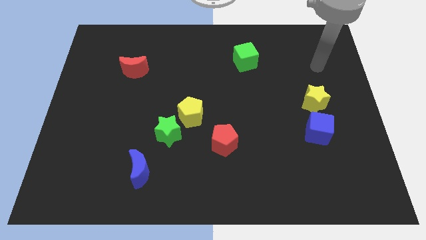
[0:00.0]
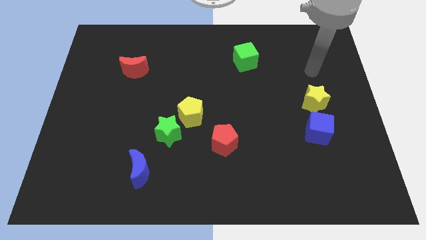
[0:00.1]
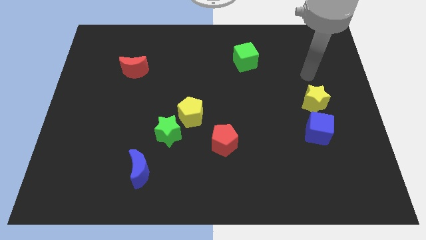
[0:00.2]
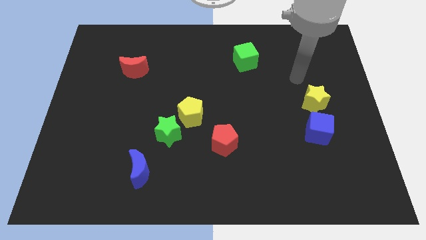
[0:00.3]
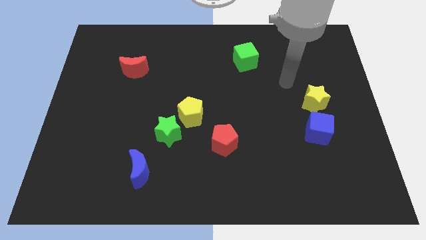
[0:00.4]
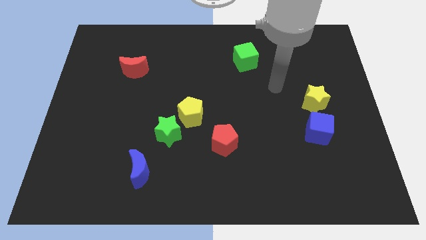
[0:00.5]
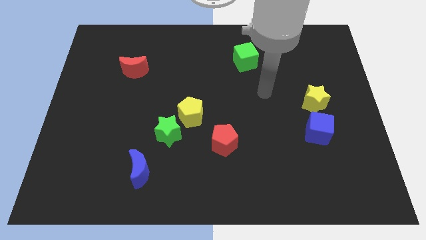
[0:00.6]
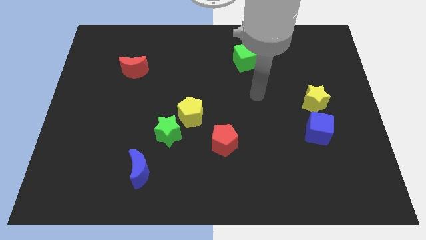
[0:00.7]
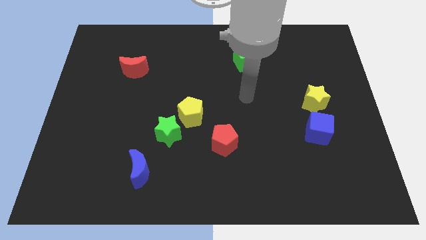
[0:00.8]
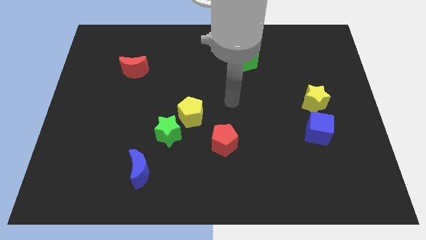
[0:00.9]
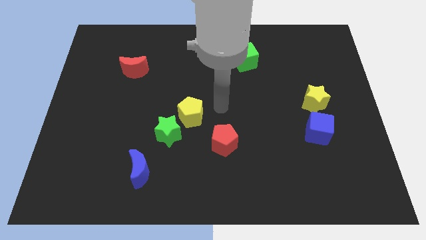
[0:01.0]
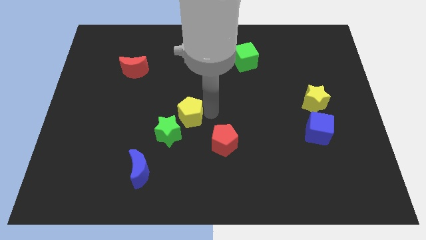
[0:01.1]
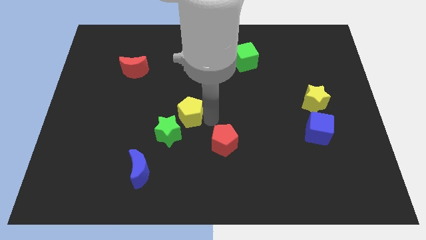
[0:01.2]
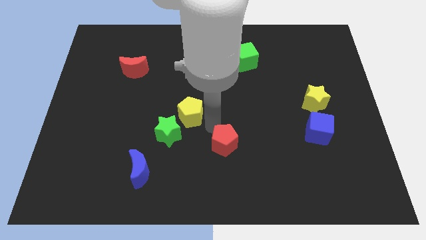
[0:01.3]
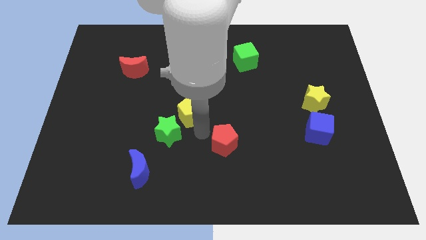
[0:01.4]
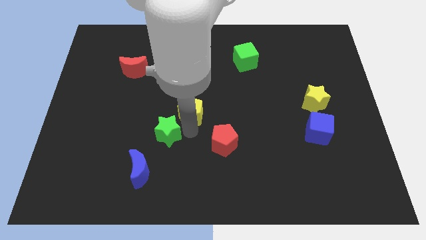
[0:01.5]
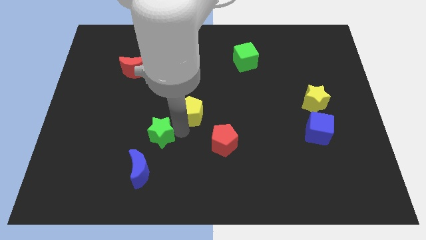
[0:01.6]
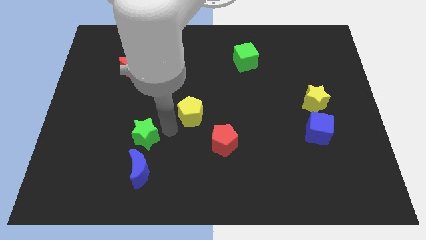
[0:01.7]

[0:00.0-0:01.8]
pull the yellow pentagon apart from the green star

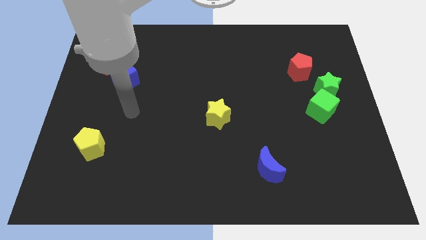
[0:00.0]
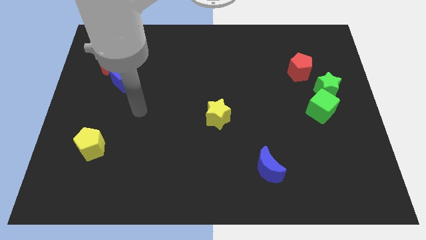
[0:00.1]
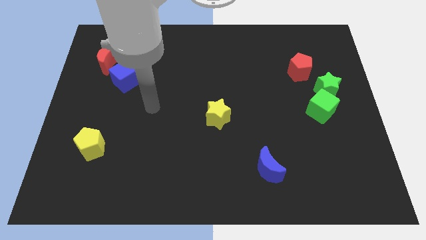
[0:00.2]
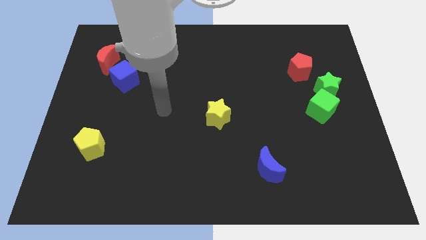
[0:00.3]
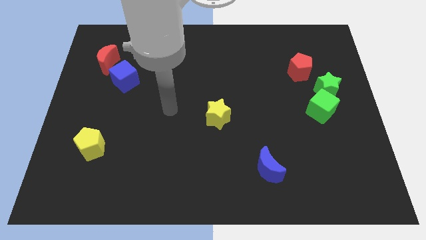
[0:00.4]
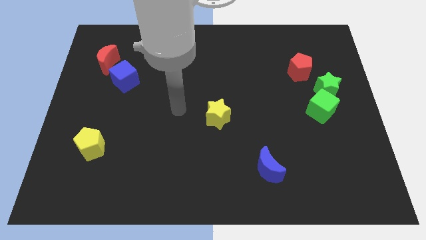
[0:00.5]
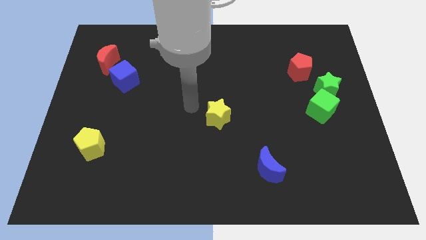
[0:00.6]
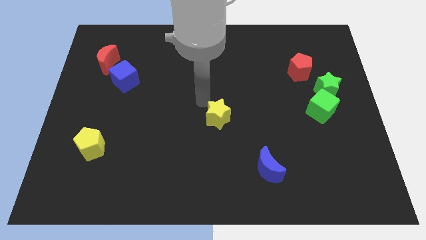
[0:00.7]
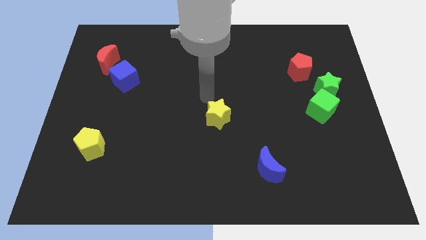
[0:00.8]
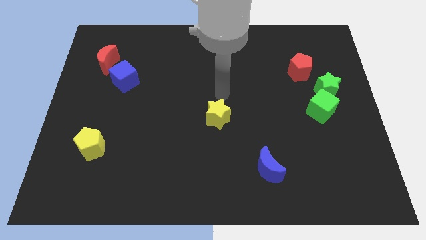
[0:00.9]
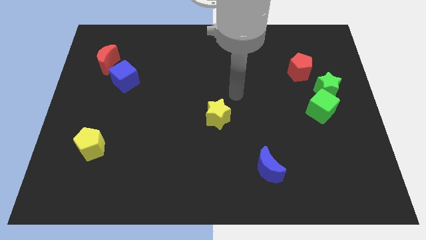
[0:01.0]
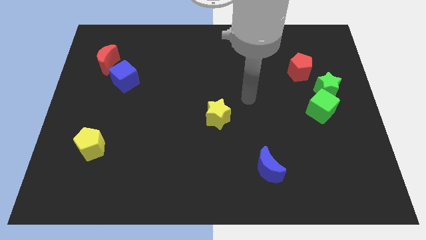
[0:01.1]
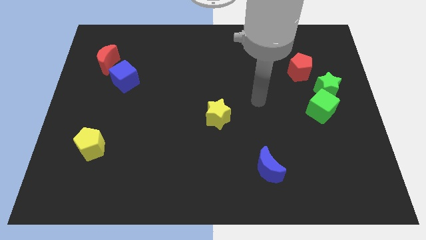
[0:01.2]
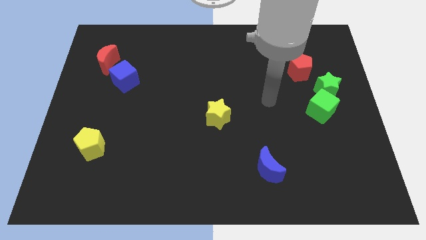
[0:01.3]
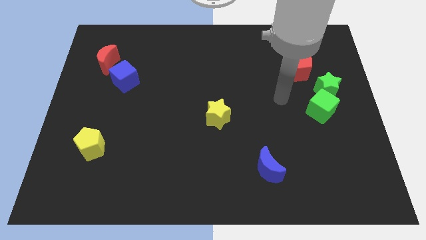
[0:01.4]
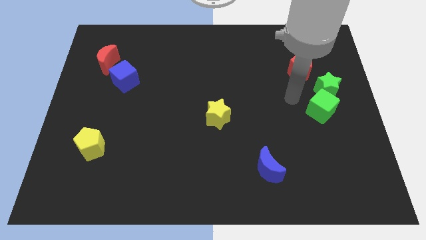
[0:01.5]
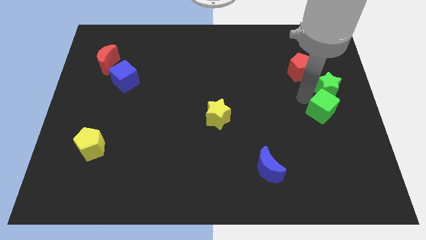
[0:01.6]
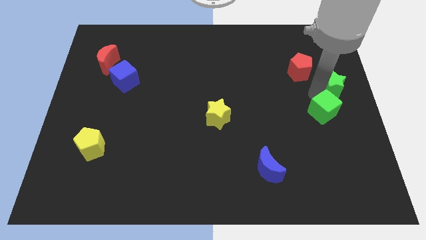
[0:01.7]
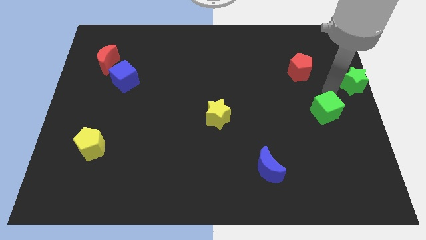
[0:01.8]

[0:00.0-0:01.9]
move the green cube away from the green star

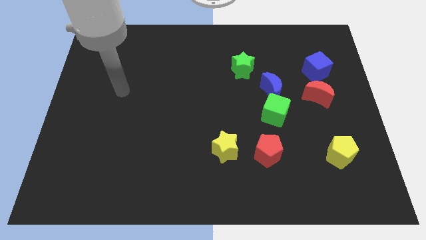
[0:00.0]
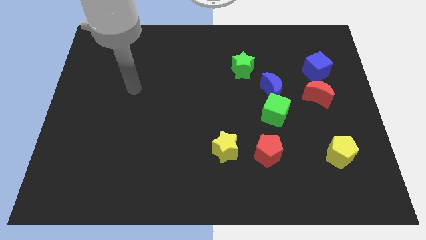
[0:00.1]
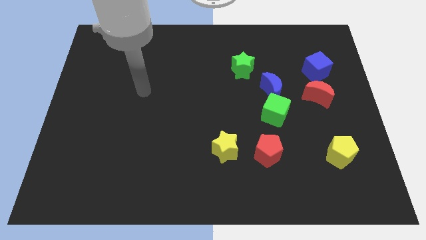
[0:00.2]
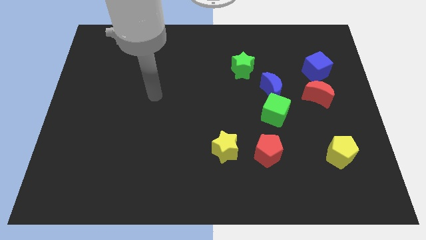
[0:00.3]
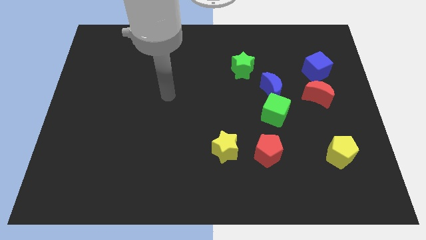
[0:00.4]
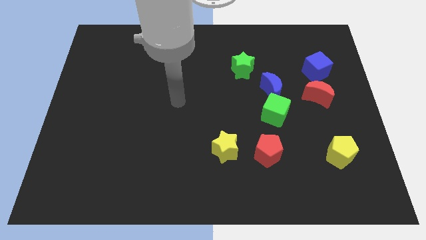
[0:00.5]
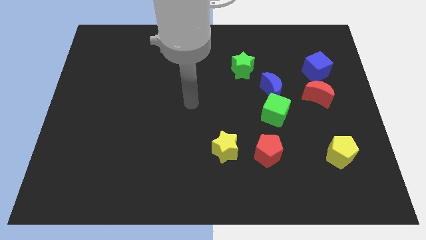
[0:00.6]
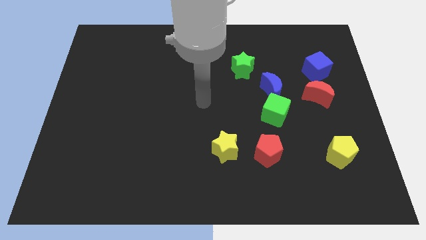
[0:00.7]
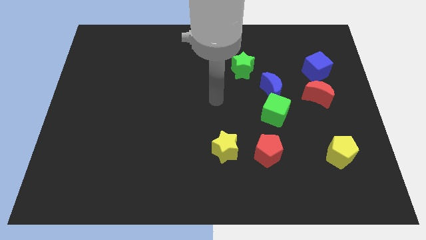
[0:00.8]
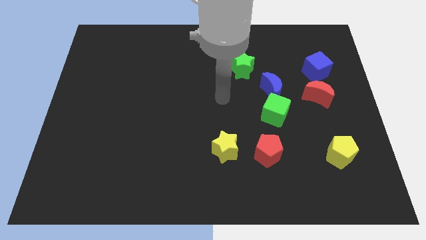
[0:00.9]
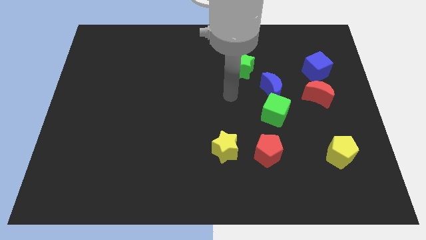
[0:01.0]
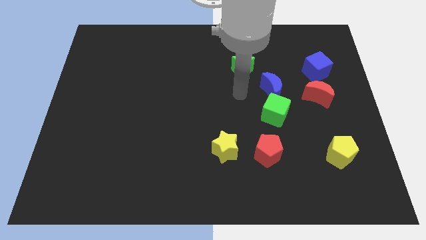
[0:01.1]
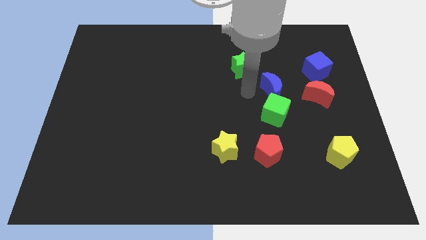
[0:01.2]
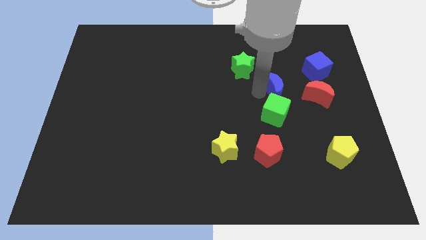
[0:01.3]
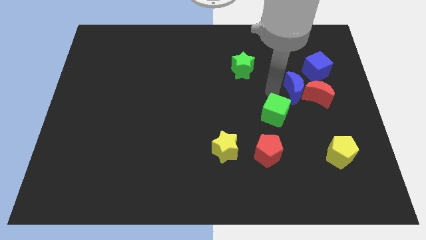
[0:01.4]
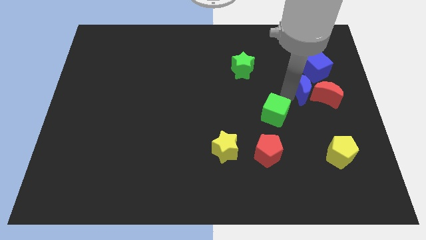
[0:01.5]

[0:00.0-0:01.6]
separate the green cube from the blue moon

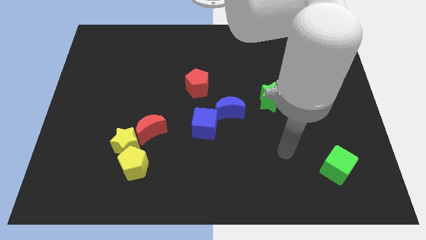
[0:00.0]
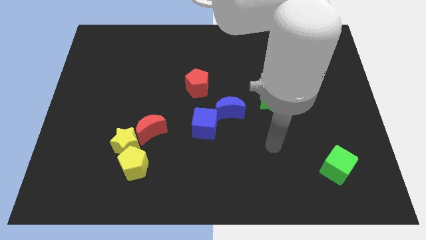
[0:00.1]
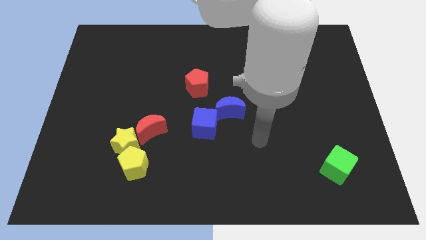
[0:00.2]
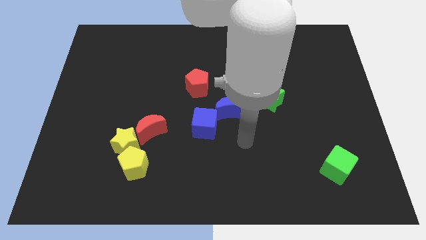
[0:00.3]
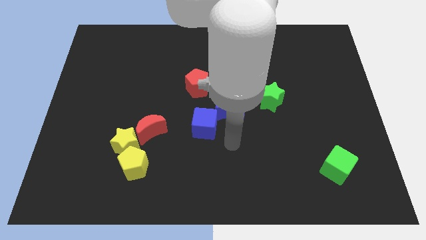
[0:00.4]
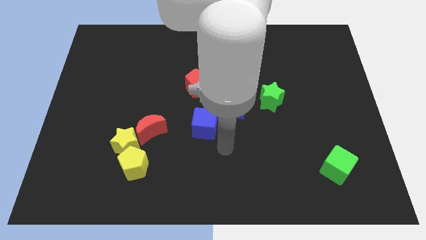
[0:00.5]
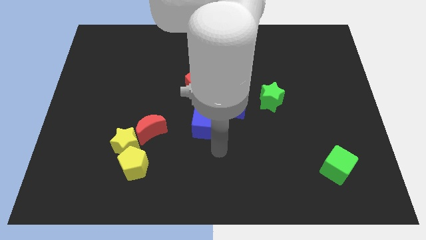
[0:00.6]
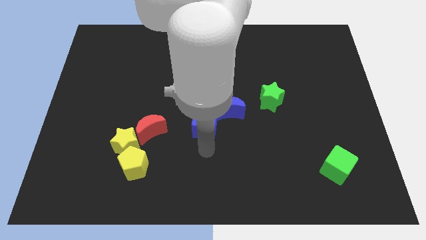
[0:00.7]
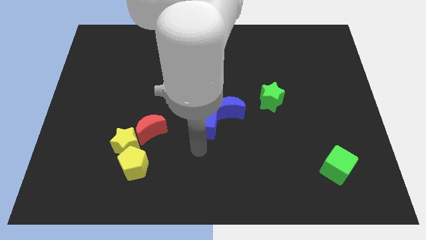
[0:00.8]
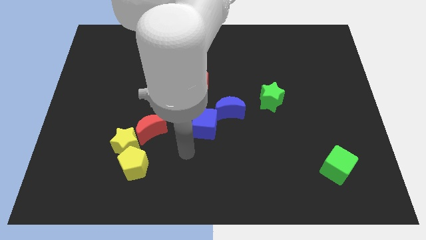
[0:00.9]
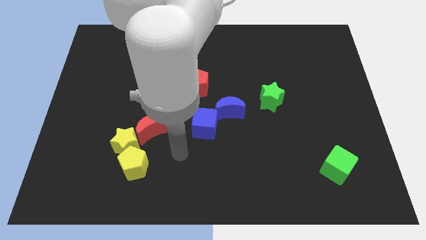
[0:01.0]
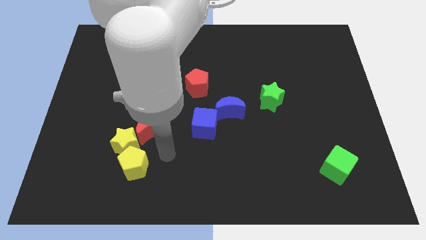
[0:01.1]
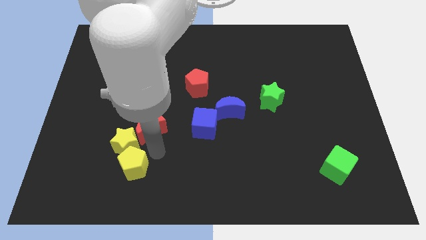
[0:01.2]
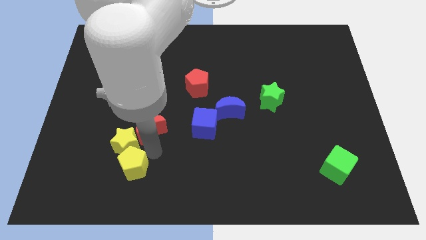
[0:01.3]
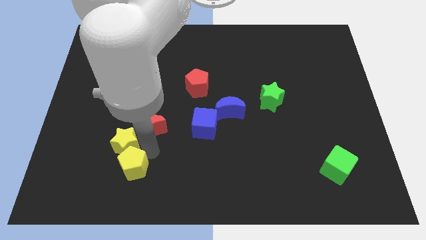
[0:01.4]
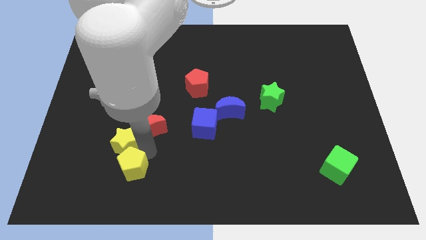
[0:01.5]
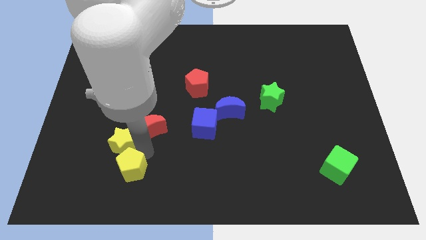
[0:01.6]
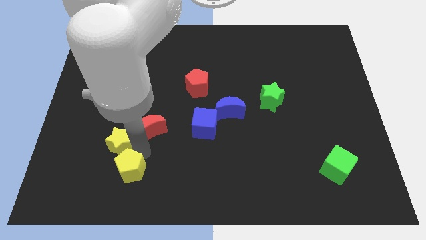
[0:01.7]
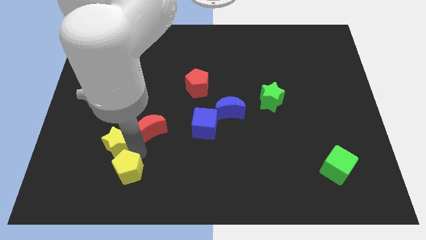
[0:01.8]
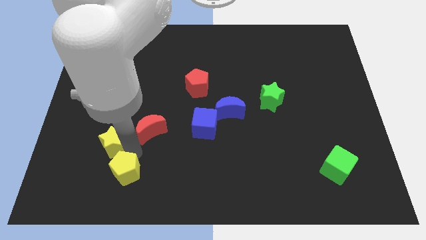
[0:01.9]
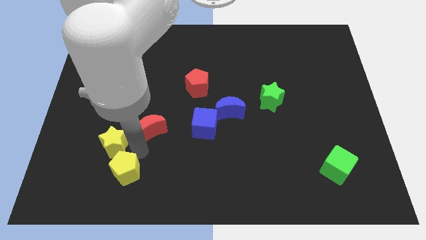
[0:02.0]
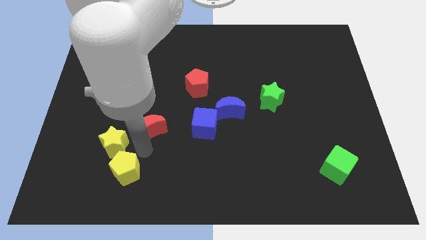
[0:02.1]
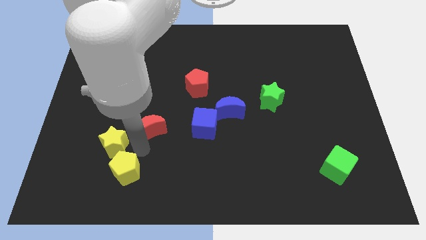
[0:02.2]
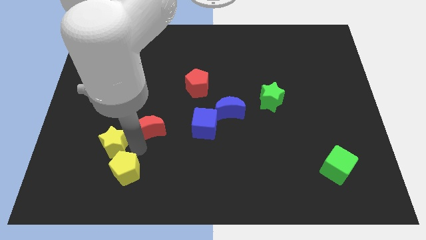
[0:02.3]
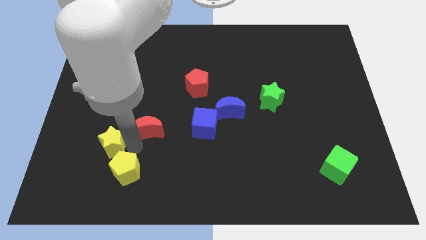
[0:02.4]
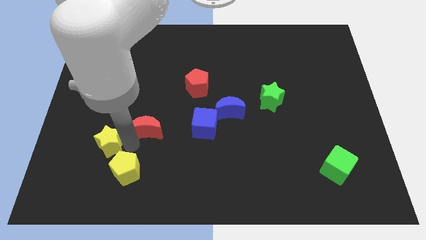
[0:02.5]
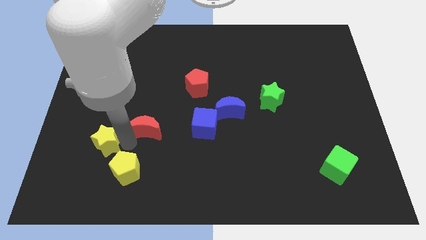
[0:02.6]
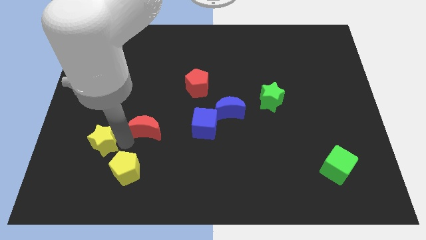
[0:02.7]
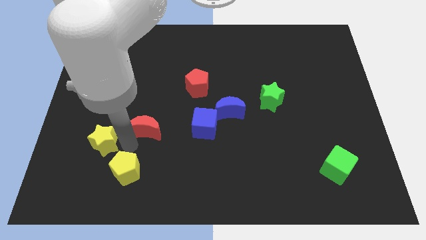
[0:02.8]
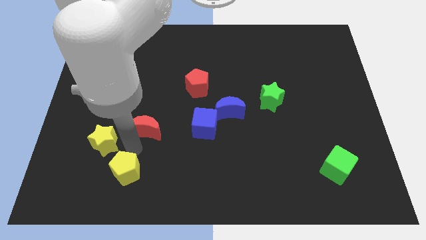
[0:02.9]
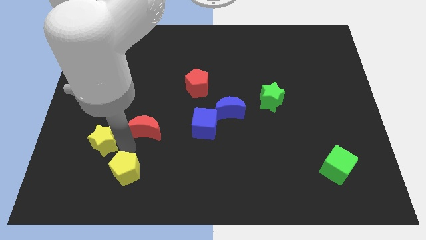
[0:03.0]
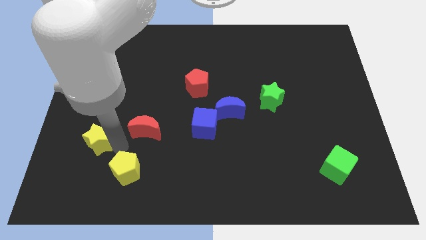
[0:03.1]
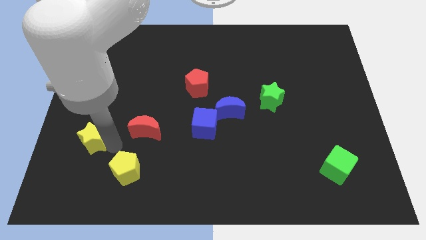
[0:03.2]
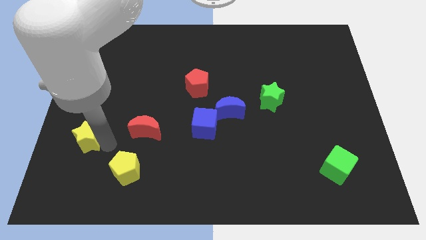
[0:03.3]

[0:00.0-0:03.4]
move the yellow star away from the yellow pentagon and red moon

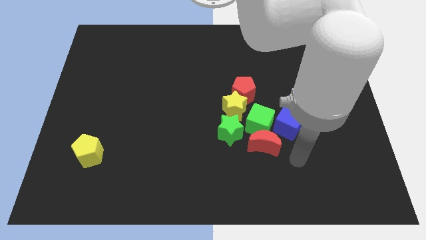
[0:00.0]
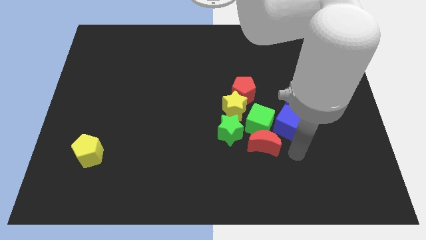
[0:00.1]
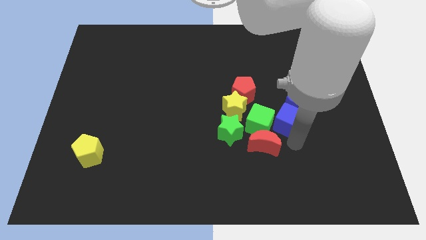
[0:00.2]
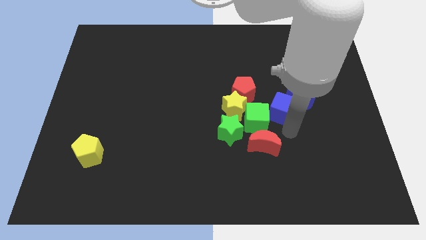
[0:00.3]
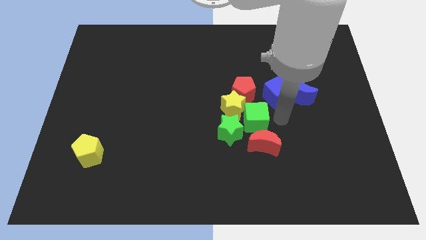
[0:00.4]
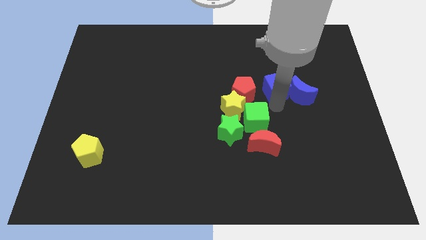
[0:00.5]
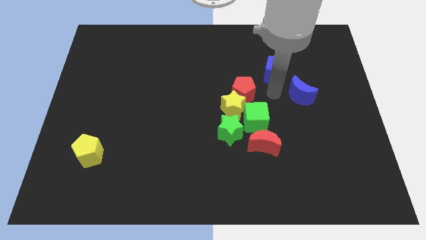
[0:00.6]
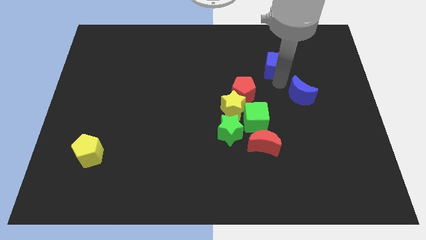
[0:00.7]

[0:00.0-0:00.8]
pull the blue moon apart from the blue cube
